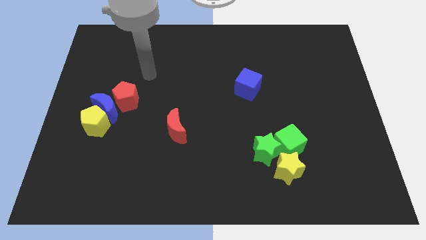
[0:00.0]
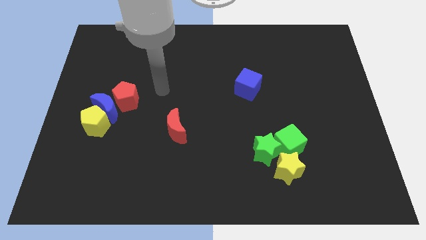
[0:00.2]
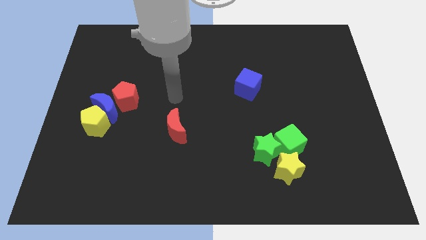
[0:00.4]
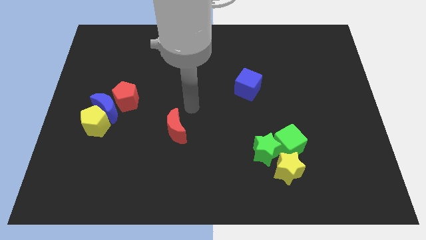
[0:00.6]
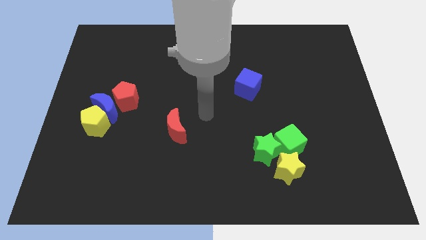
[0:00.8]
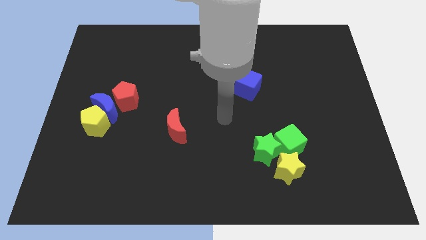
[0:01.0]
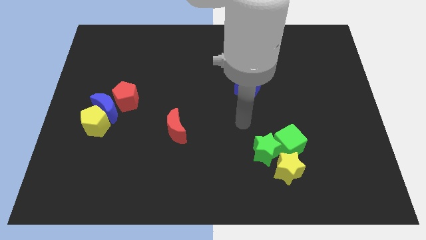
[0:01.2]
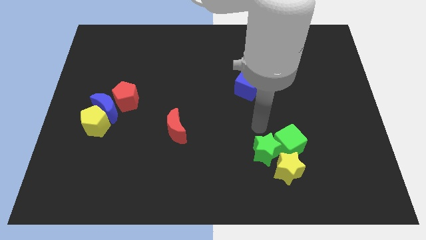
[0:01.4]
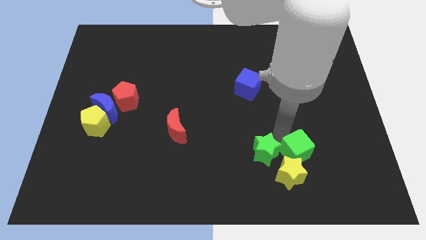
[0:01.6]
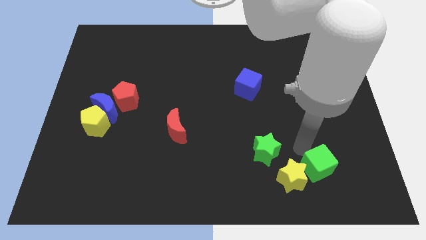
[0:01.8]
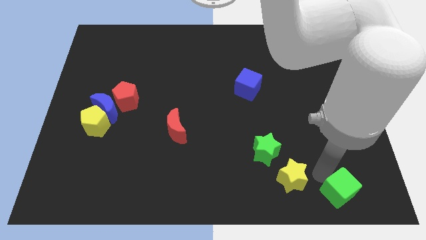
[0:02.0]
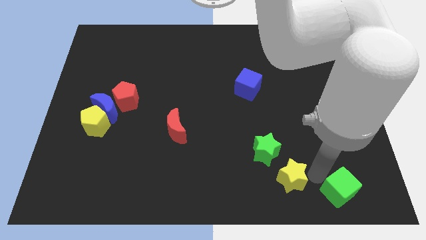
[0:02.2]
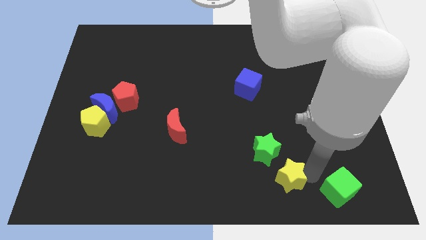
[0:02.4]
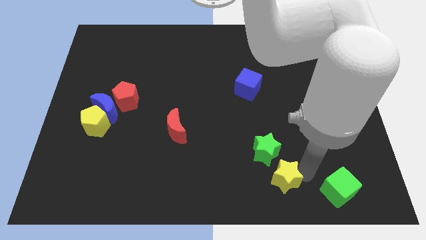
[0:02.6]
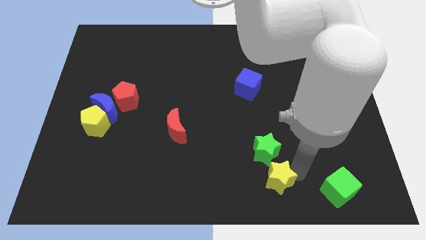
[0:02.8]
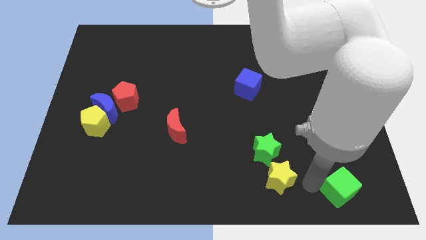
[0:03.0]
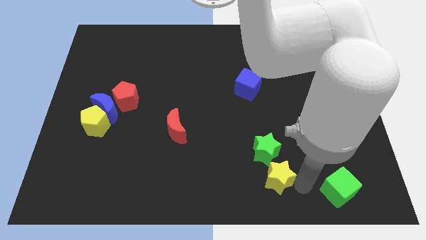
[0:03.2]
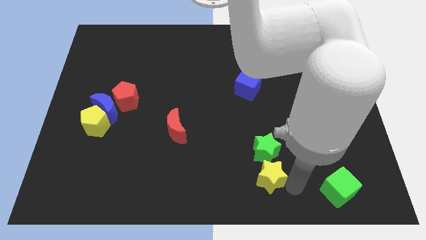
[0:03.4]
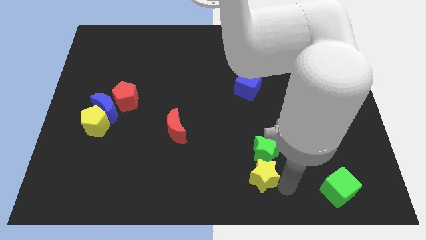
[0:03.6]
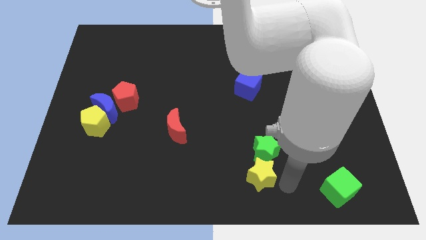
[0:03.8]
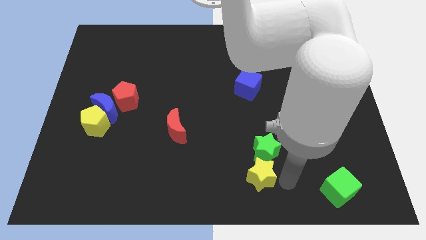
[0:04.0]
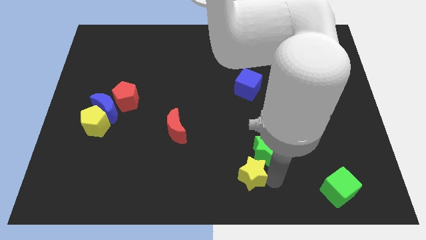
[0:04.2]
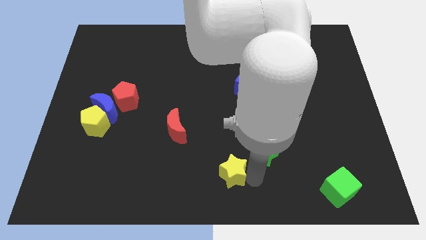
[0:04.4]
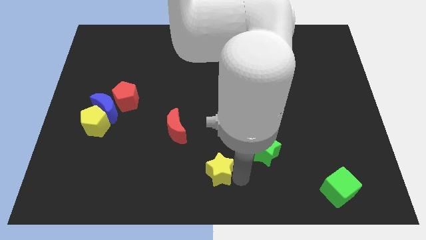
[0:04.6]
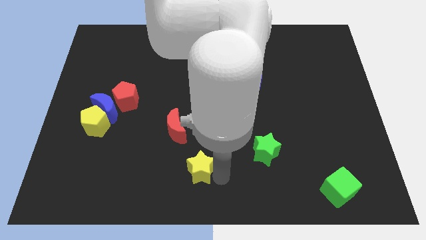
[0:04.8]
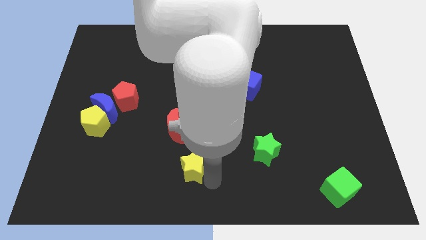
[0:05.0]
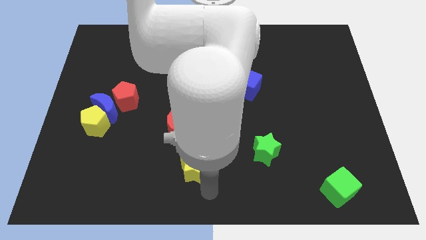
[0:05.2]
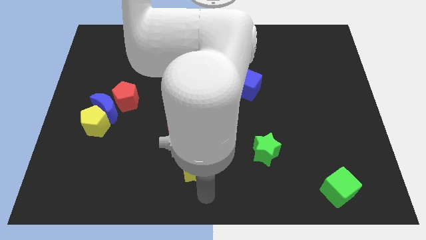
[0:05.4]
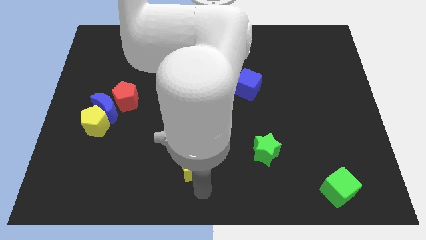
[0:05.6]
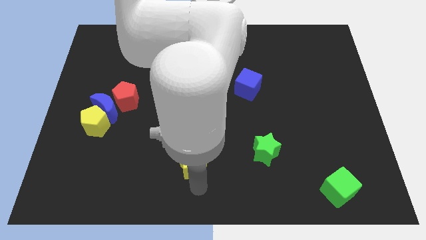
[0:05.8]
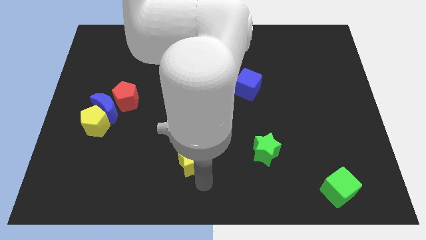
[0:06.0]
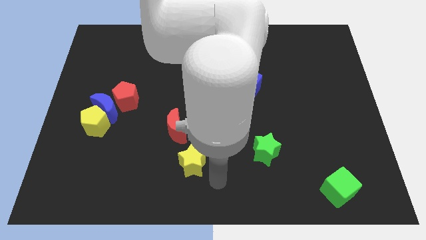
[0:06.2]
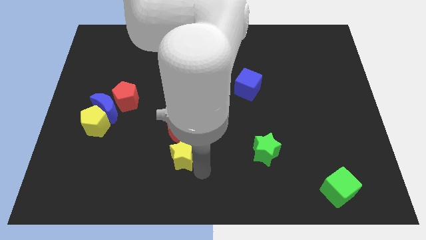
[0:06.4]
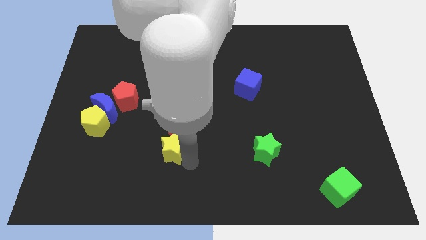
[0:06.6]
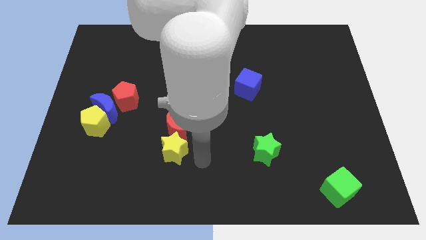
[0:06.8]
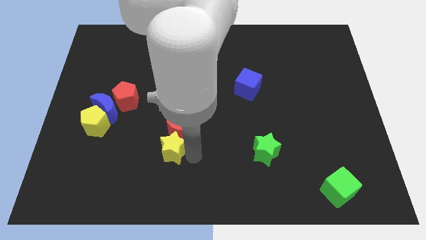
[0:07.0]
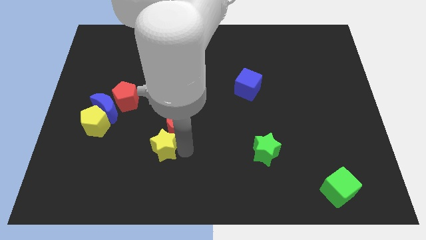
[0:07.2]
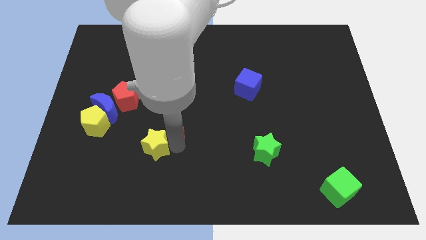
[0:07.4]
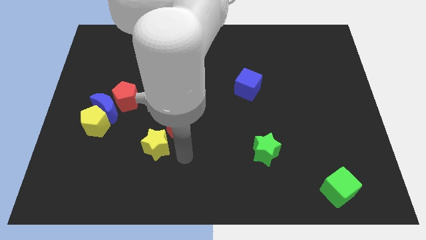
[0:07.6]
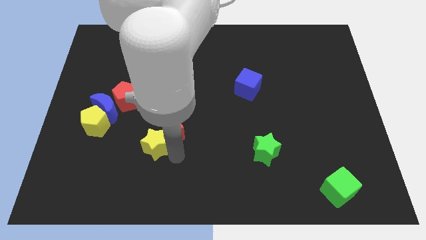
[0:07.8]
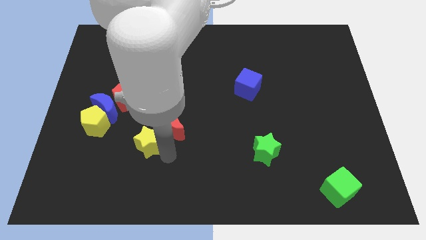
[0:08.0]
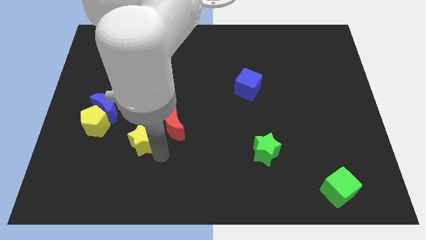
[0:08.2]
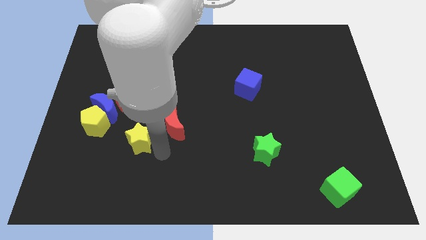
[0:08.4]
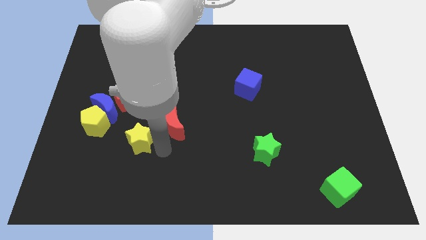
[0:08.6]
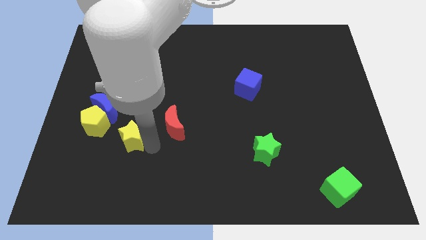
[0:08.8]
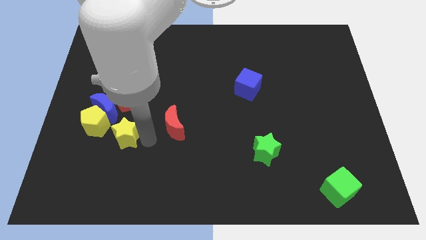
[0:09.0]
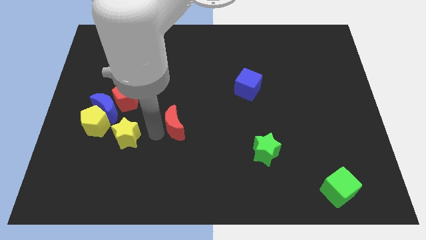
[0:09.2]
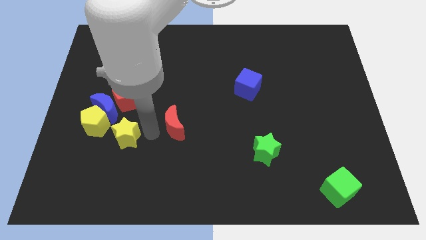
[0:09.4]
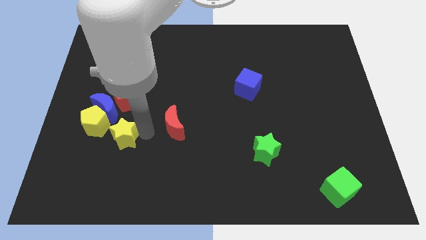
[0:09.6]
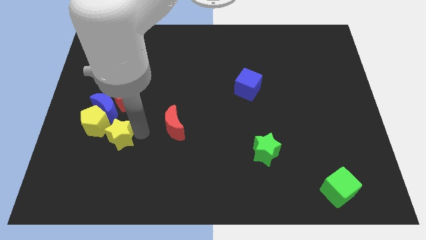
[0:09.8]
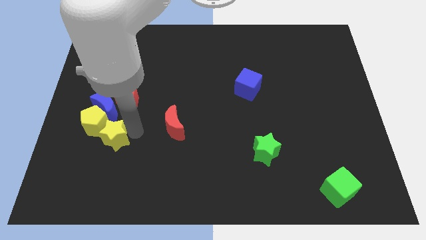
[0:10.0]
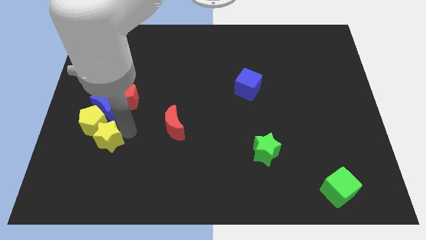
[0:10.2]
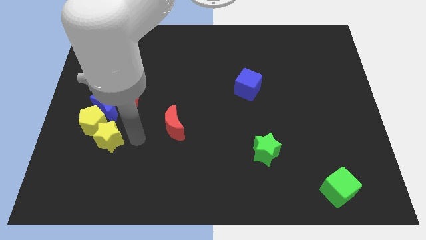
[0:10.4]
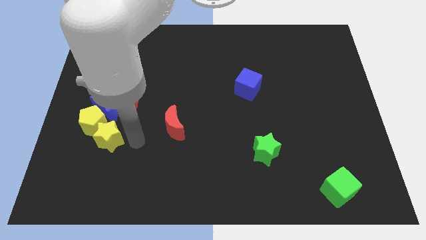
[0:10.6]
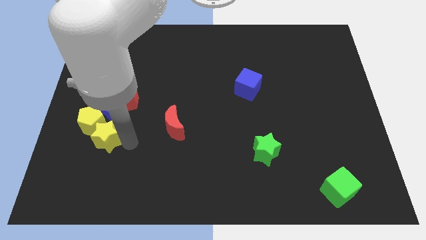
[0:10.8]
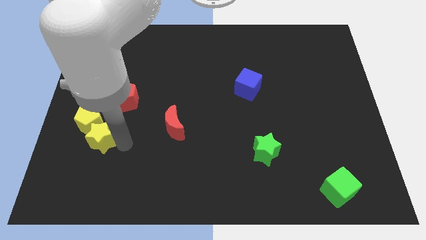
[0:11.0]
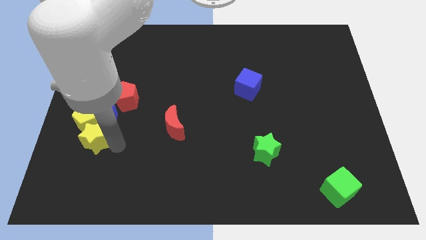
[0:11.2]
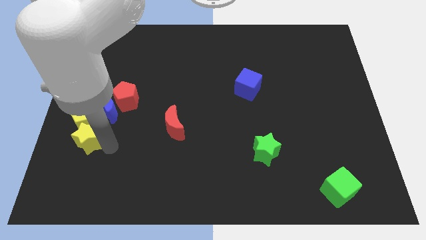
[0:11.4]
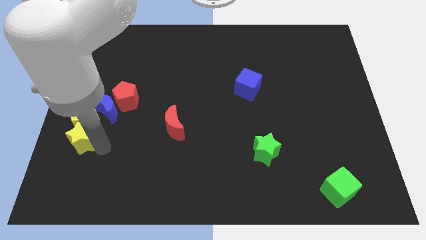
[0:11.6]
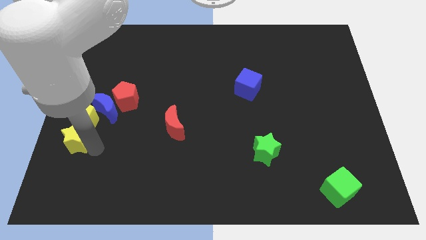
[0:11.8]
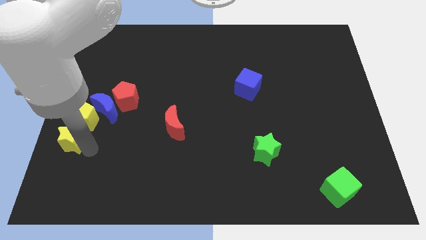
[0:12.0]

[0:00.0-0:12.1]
put the yellow star to the center left

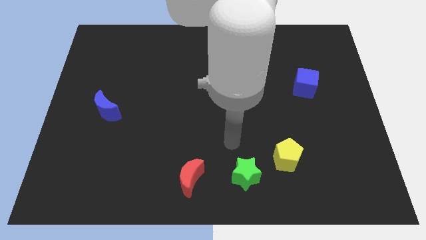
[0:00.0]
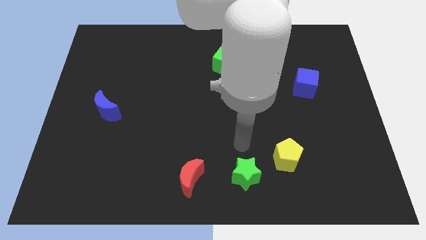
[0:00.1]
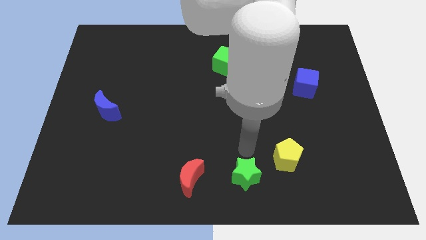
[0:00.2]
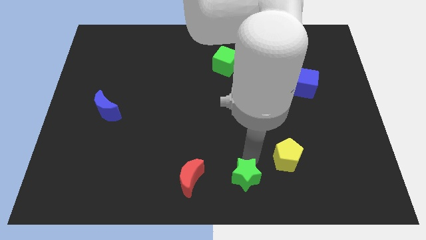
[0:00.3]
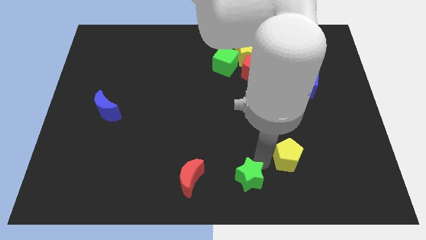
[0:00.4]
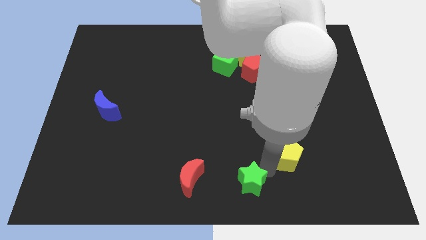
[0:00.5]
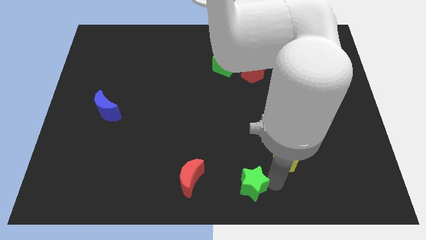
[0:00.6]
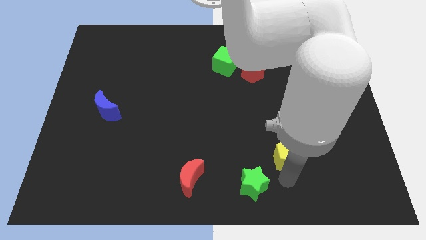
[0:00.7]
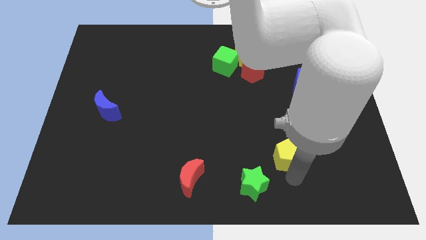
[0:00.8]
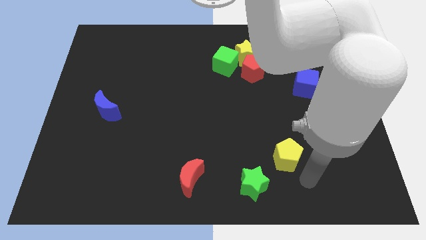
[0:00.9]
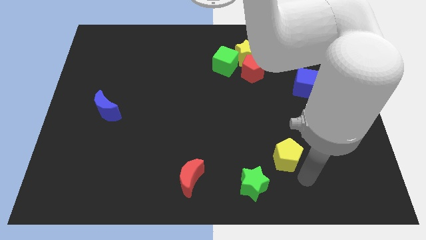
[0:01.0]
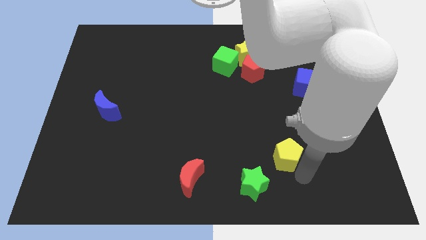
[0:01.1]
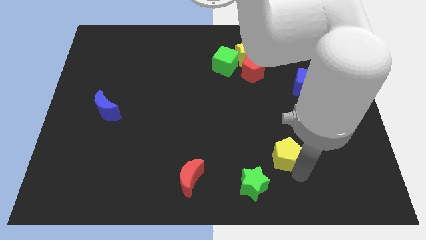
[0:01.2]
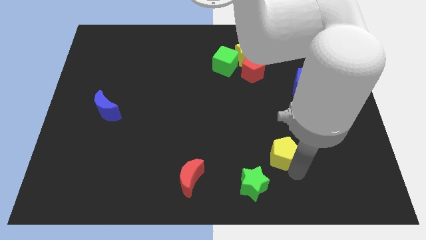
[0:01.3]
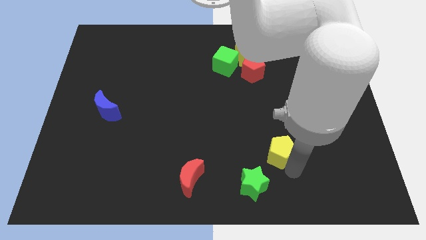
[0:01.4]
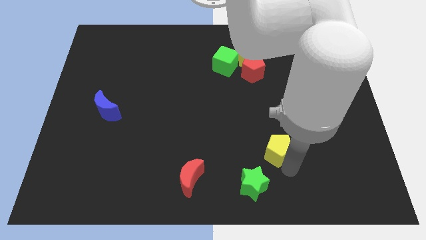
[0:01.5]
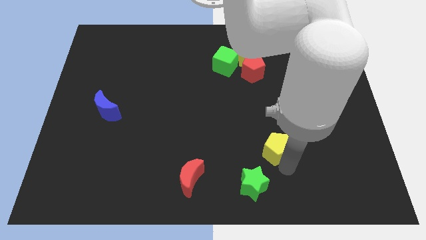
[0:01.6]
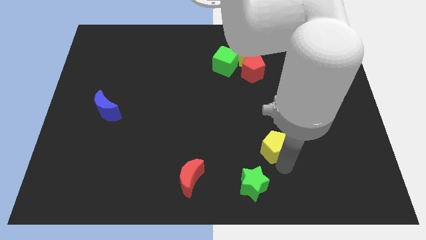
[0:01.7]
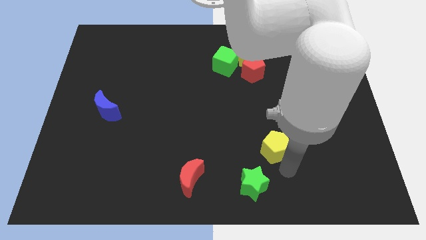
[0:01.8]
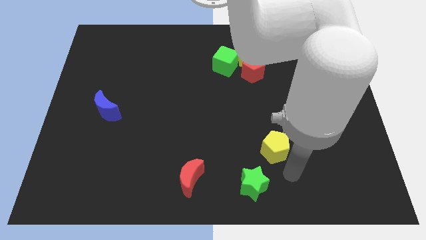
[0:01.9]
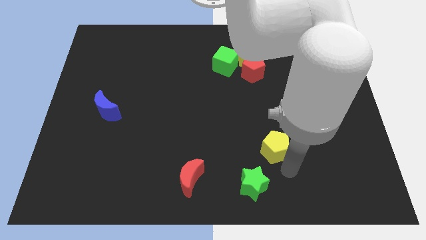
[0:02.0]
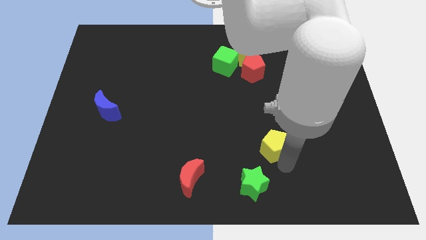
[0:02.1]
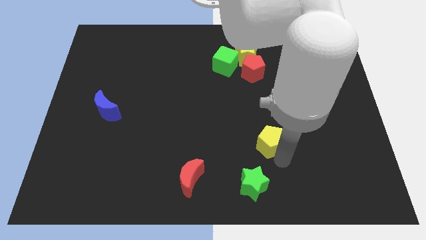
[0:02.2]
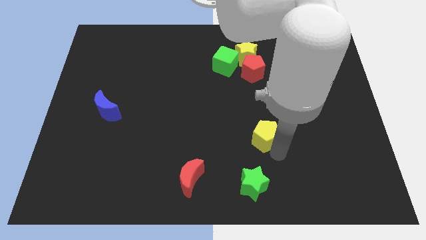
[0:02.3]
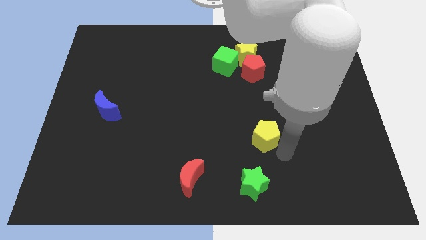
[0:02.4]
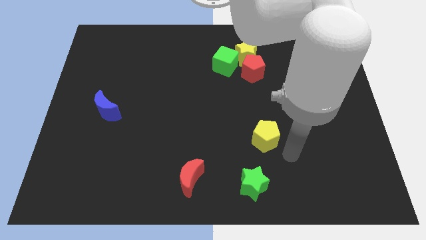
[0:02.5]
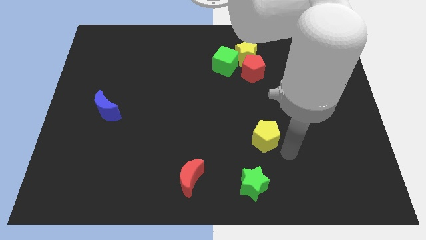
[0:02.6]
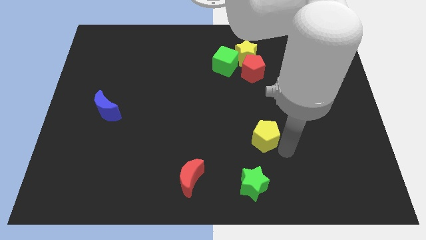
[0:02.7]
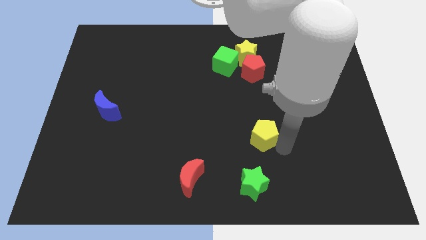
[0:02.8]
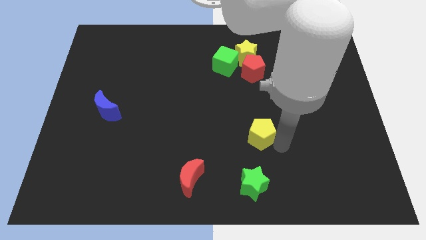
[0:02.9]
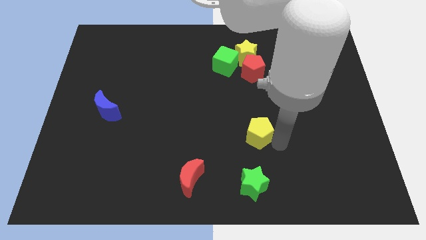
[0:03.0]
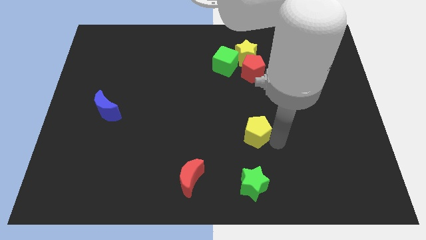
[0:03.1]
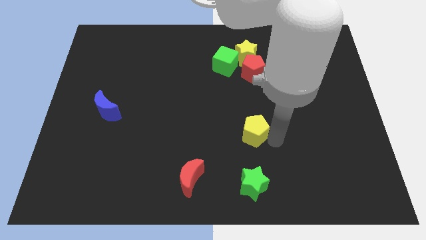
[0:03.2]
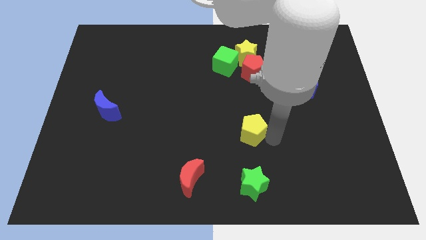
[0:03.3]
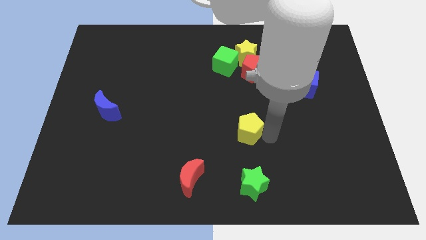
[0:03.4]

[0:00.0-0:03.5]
push the yellow pentagon to the center of the board
